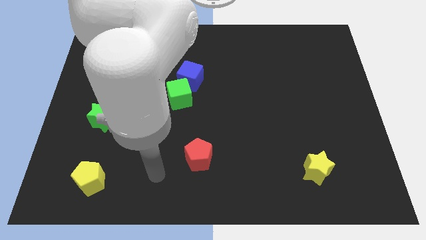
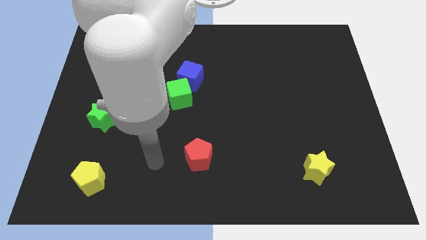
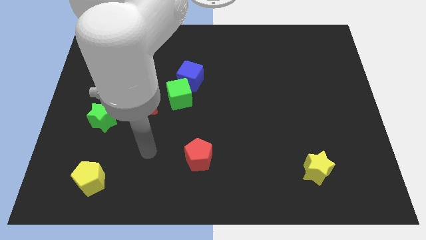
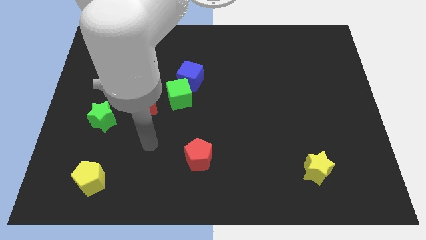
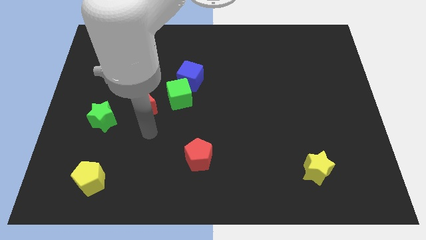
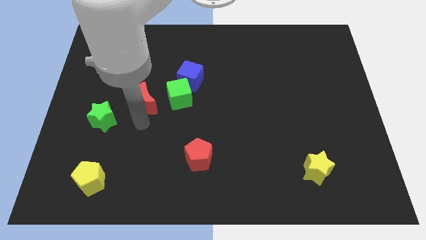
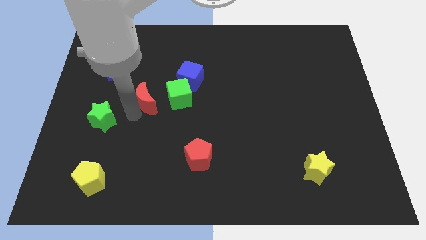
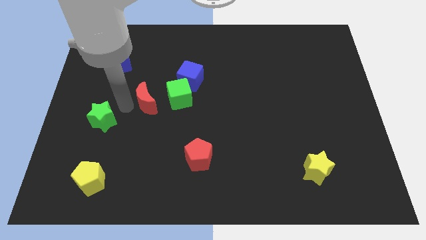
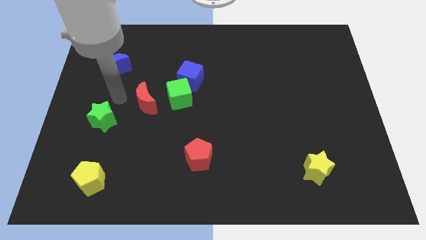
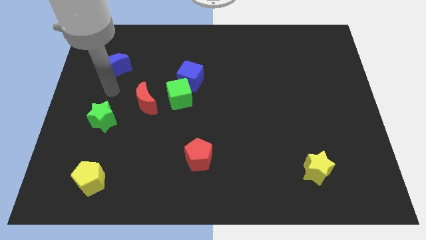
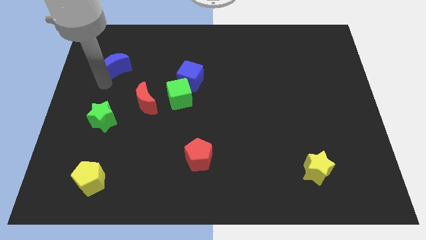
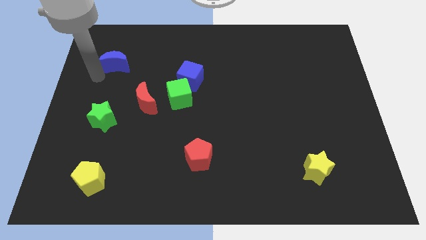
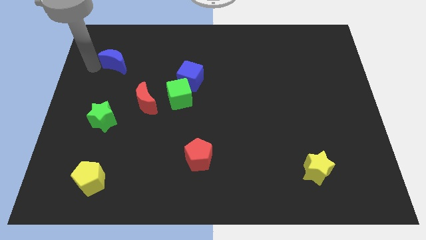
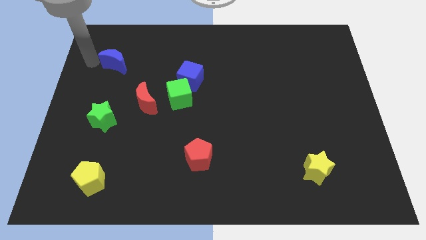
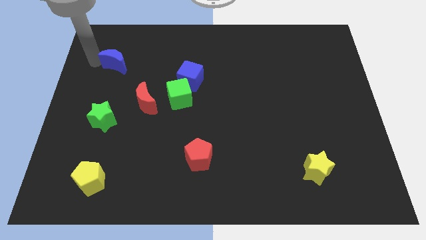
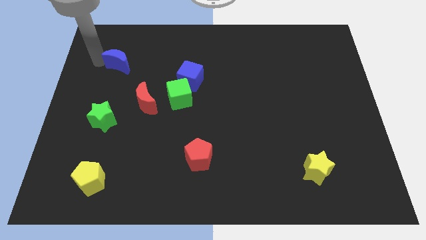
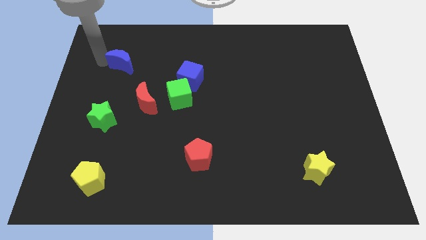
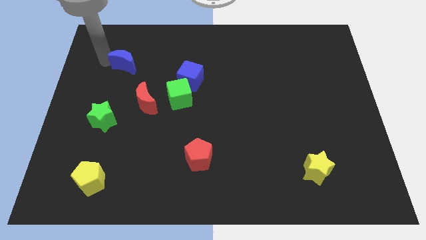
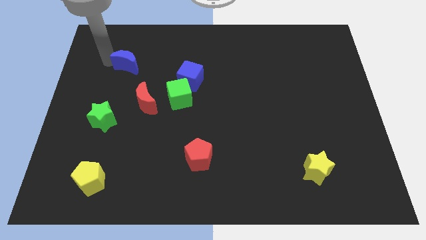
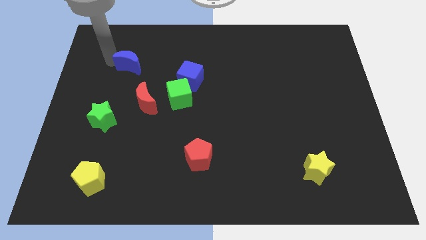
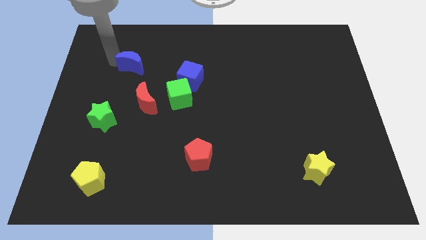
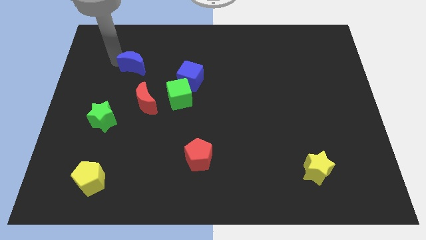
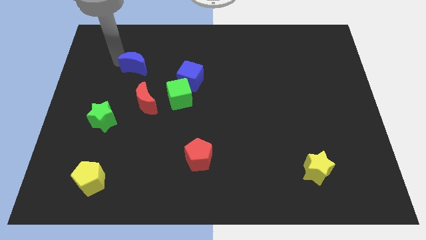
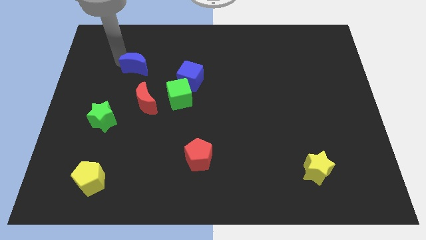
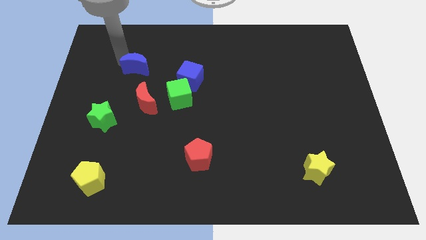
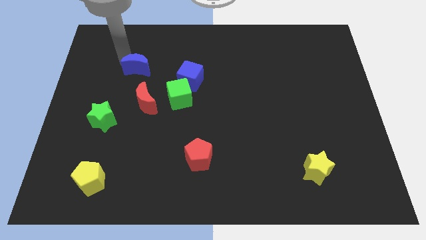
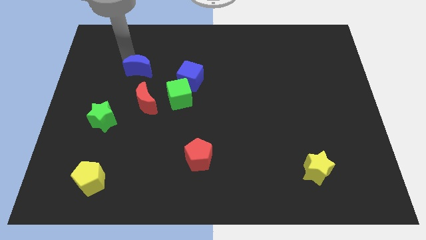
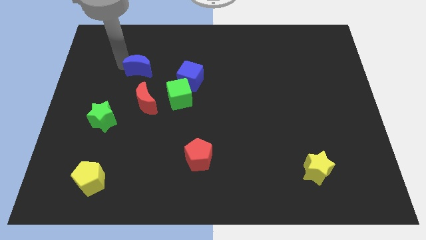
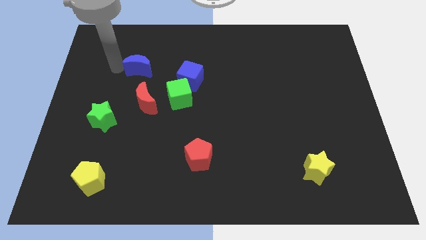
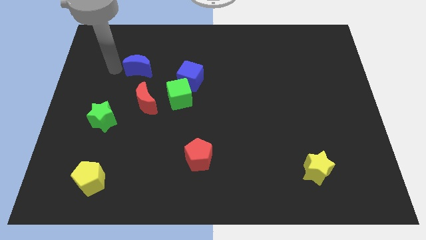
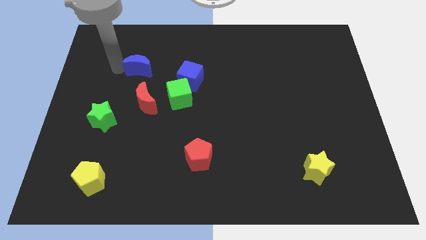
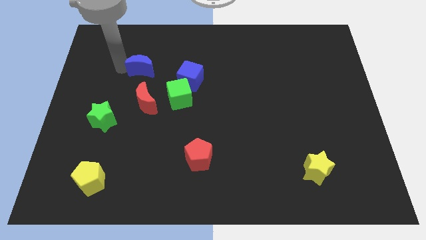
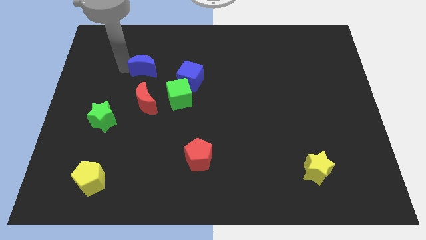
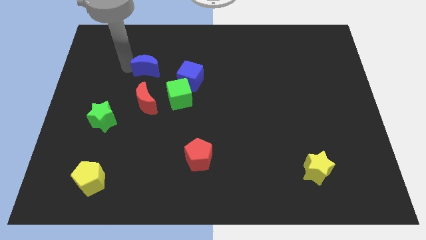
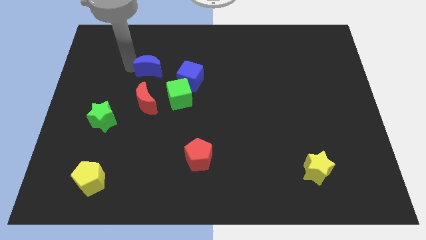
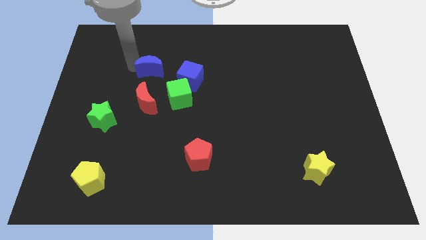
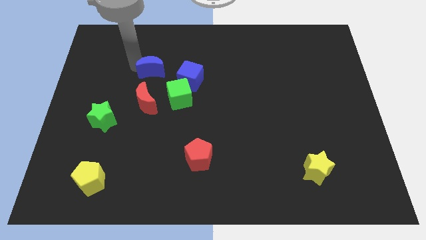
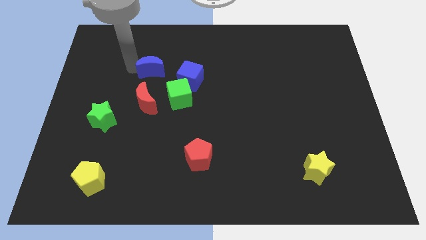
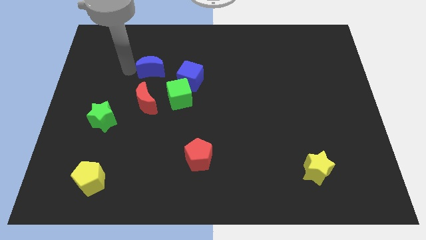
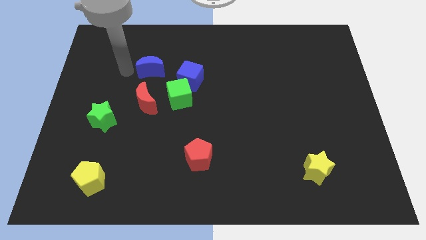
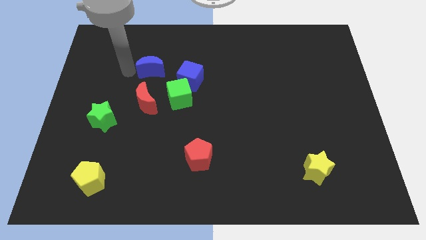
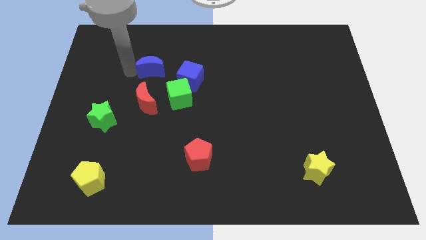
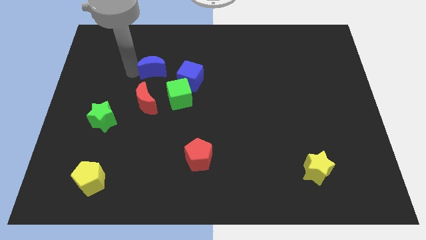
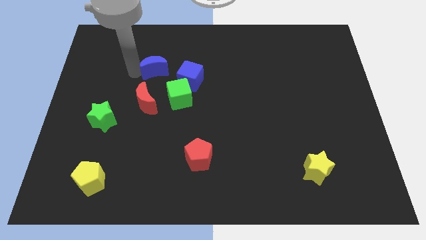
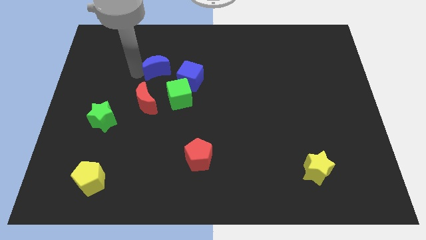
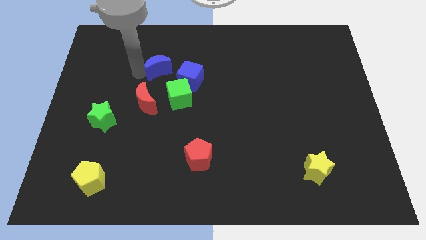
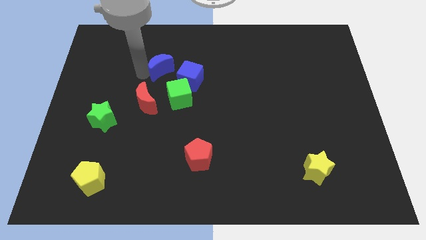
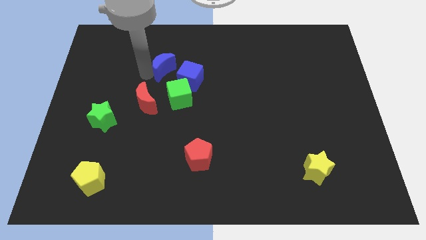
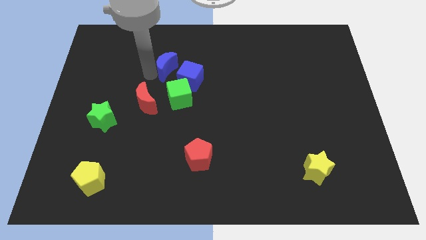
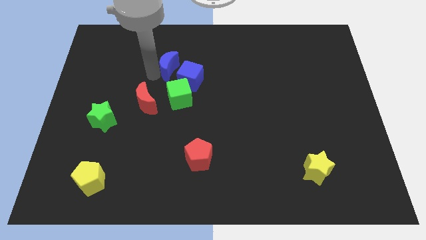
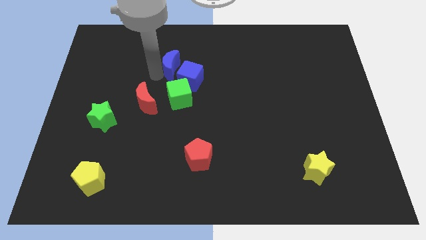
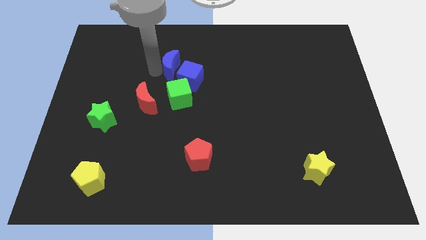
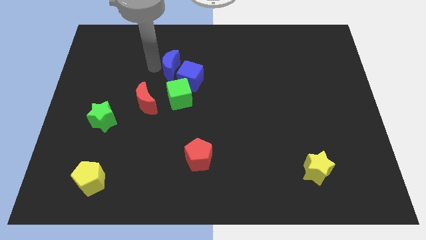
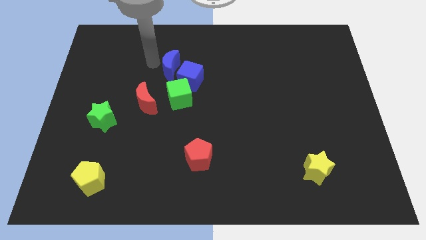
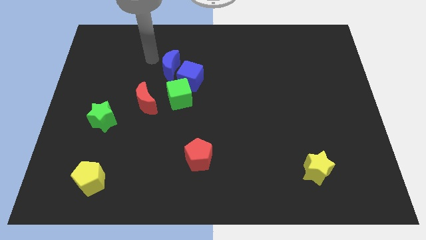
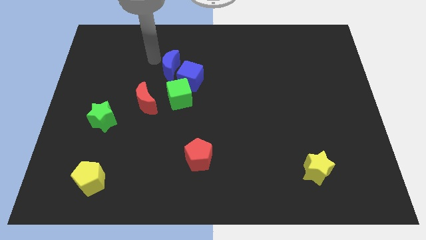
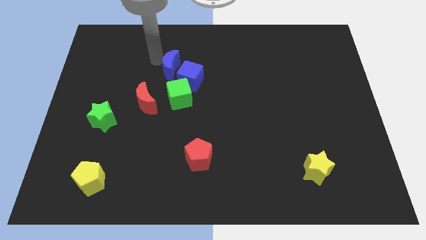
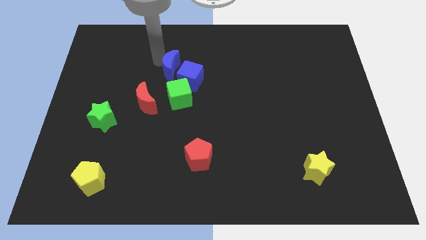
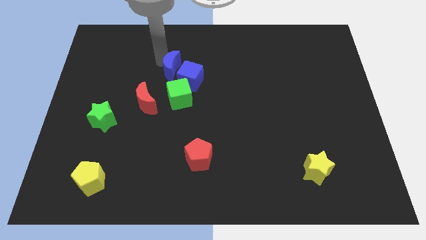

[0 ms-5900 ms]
slide the blue moon to the blue cube
